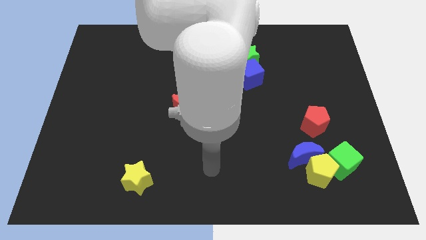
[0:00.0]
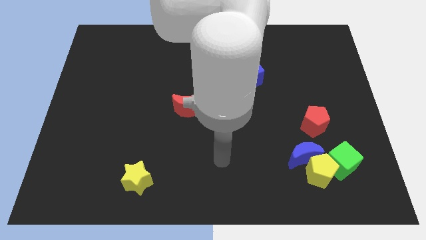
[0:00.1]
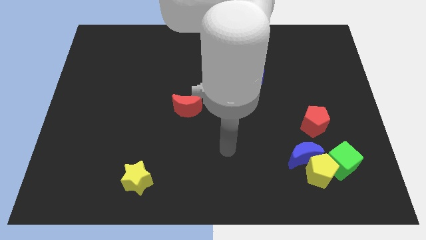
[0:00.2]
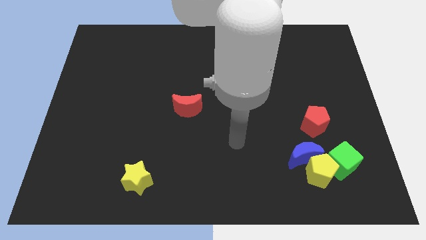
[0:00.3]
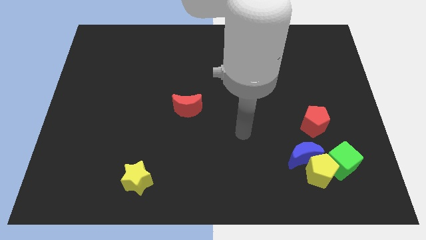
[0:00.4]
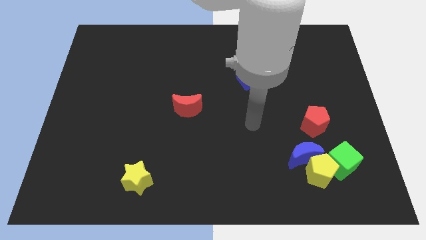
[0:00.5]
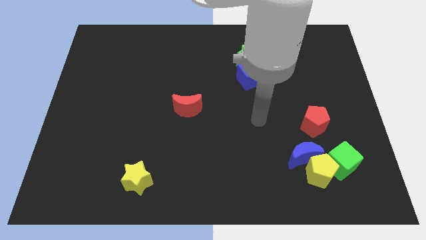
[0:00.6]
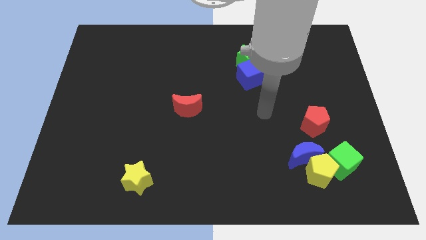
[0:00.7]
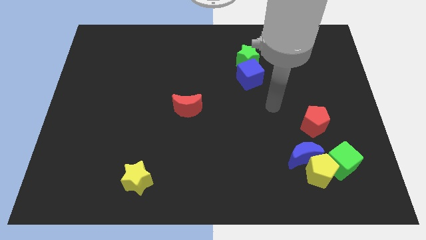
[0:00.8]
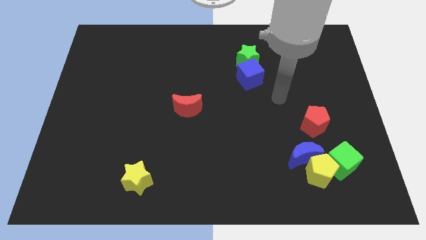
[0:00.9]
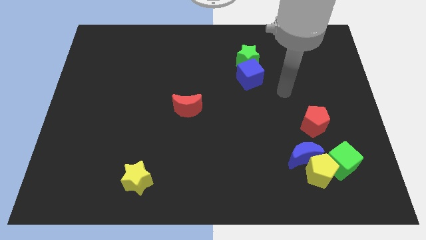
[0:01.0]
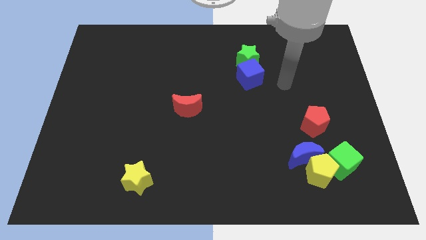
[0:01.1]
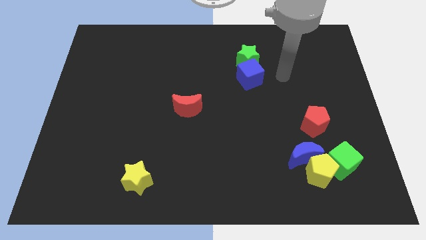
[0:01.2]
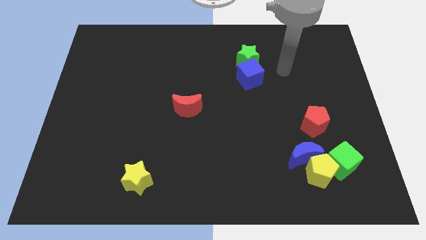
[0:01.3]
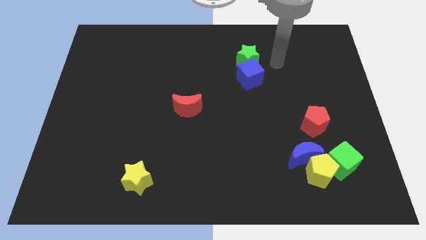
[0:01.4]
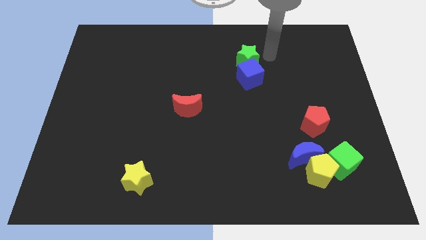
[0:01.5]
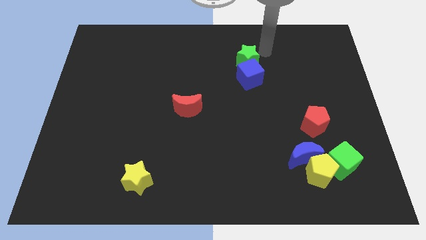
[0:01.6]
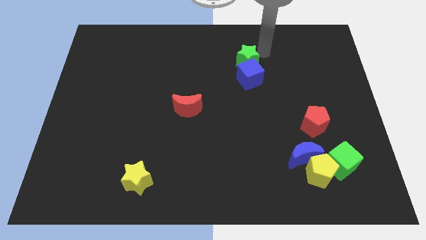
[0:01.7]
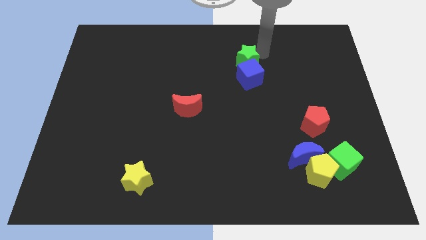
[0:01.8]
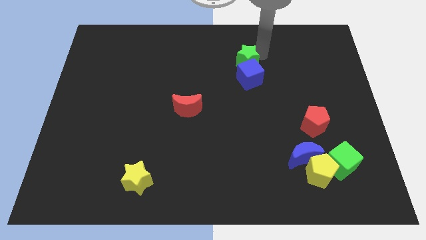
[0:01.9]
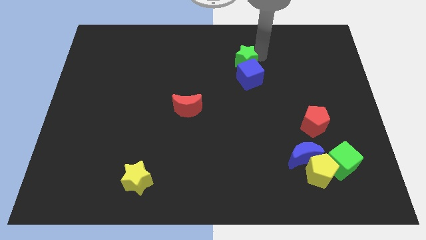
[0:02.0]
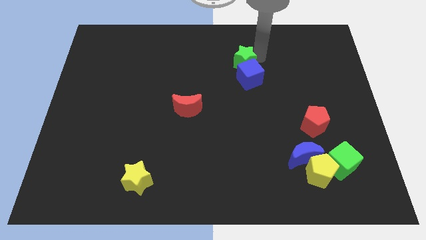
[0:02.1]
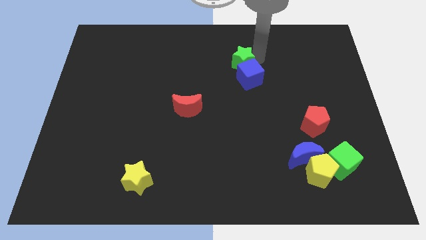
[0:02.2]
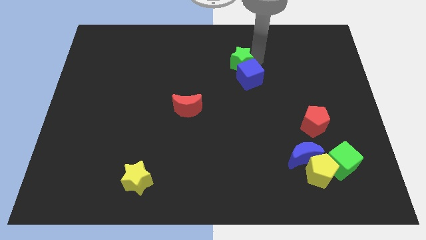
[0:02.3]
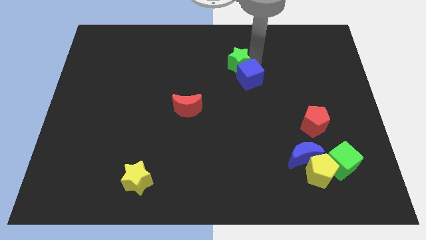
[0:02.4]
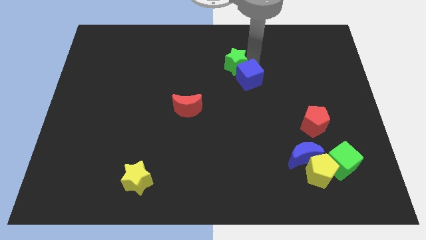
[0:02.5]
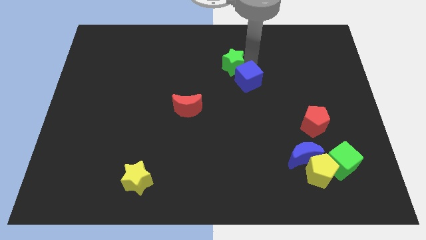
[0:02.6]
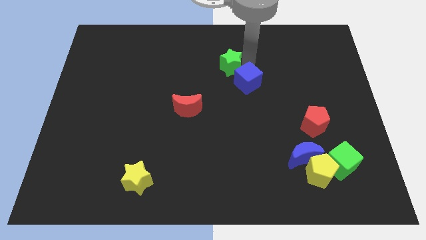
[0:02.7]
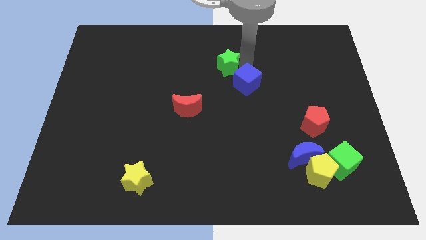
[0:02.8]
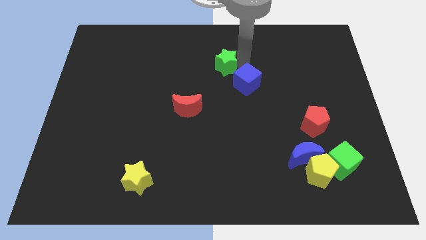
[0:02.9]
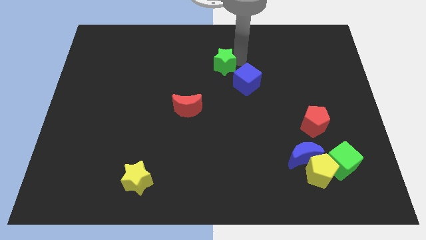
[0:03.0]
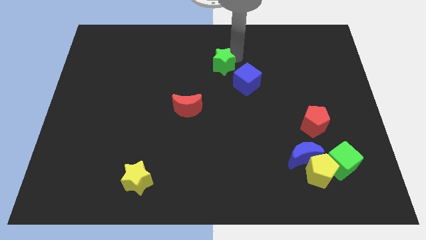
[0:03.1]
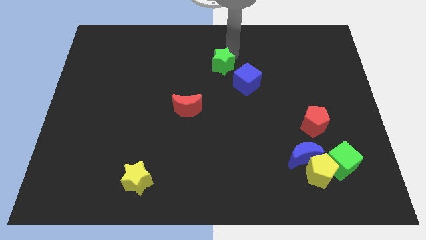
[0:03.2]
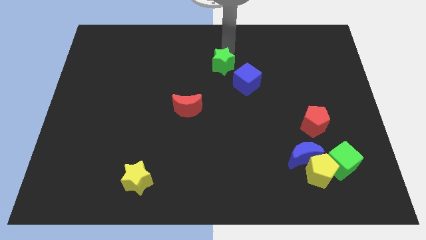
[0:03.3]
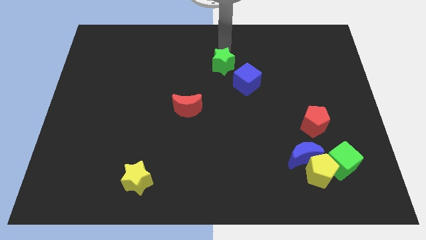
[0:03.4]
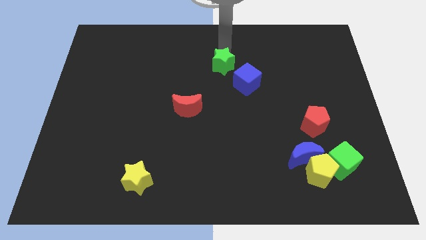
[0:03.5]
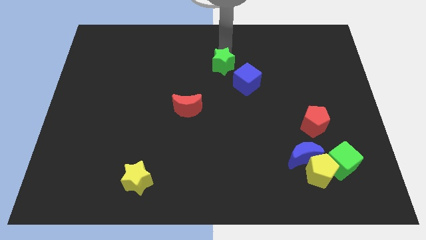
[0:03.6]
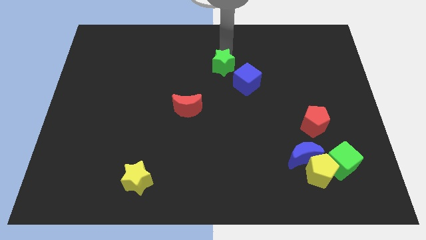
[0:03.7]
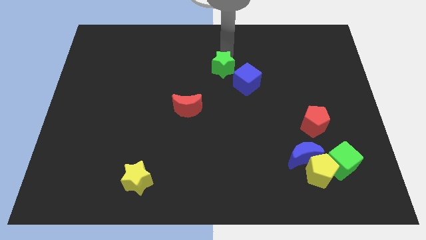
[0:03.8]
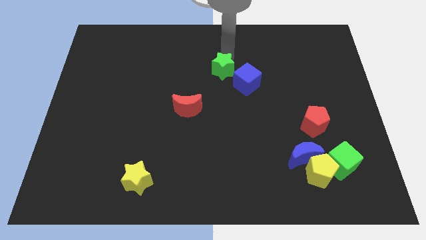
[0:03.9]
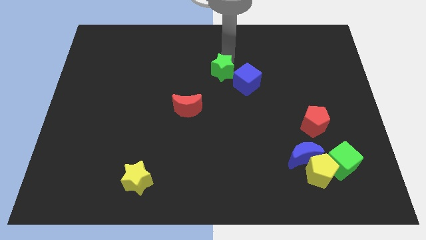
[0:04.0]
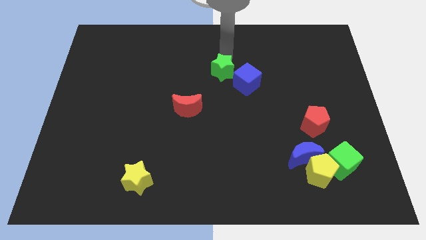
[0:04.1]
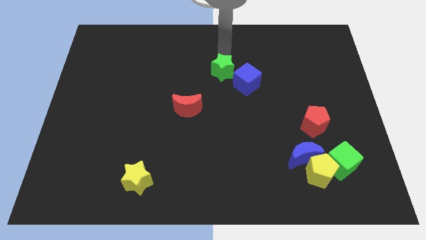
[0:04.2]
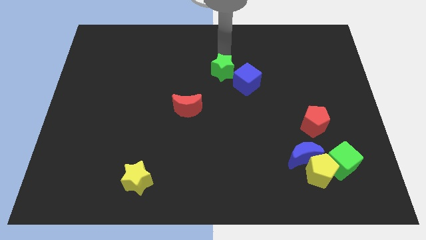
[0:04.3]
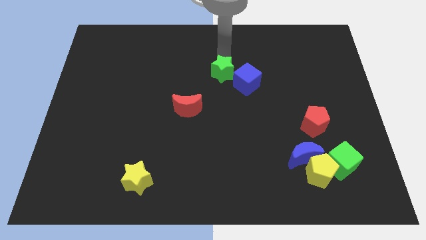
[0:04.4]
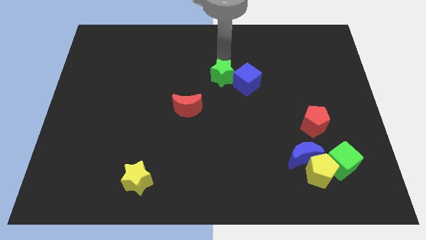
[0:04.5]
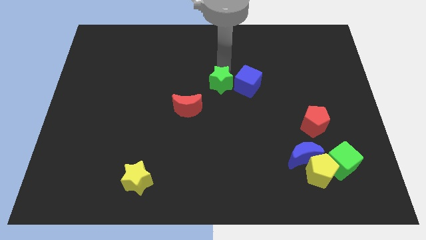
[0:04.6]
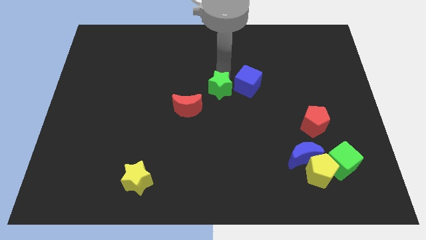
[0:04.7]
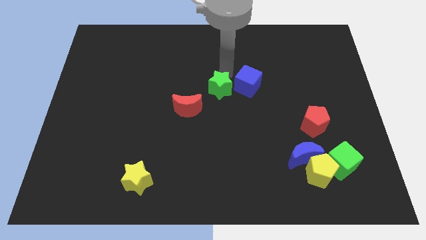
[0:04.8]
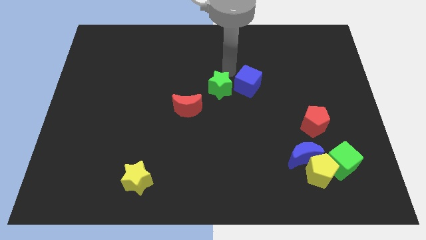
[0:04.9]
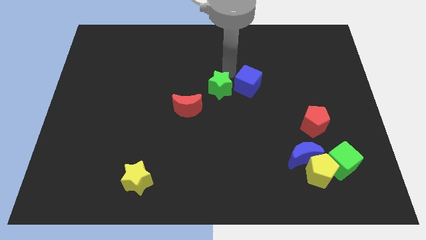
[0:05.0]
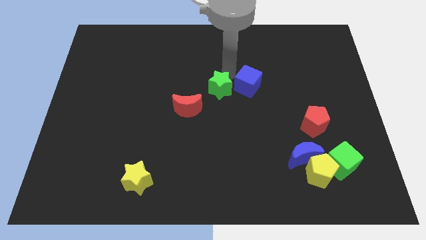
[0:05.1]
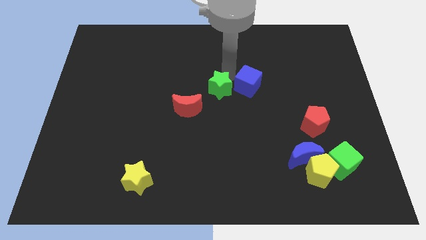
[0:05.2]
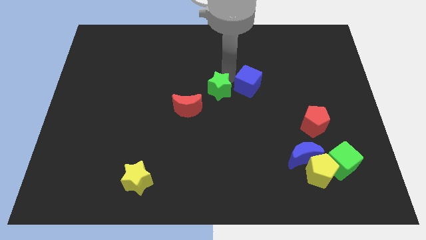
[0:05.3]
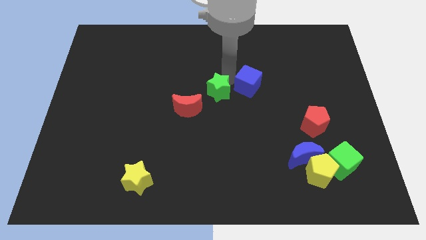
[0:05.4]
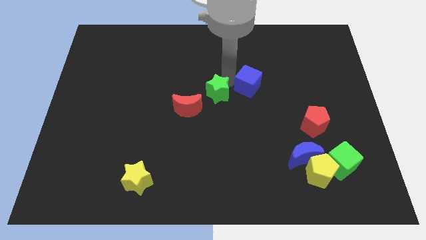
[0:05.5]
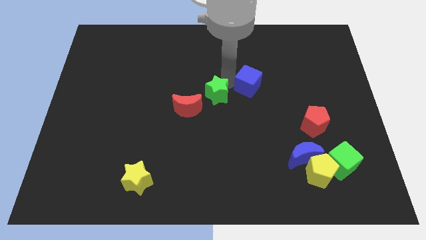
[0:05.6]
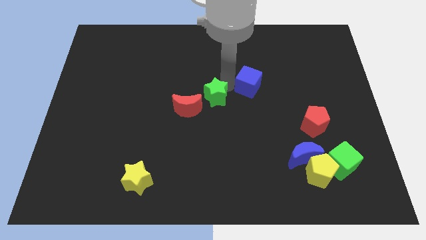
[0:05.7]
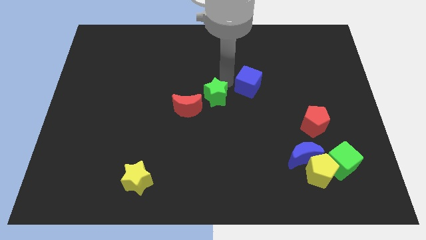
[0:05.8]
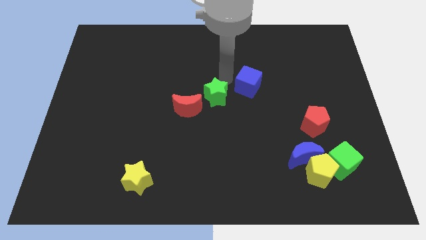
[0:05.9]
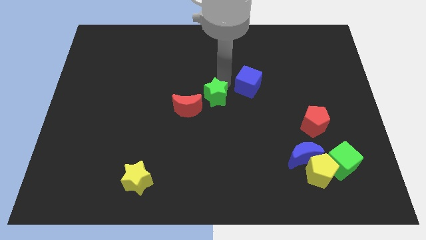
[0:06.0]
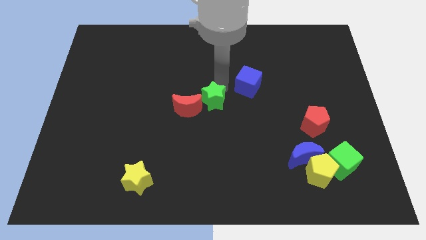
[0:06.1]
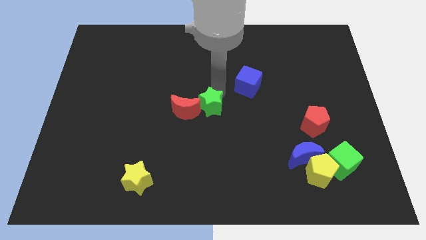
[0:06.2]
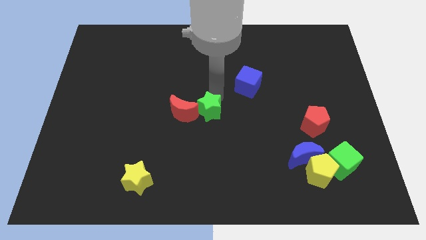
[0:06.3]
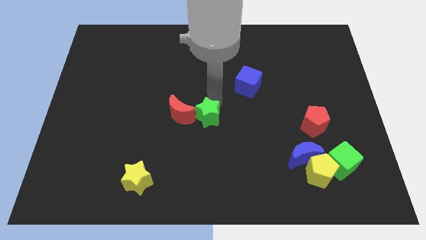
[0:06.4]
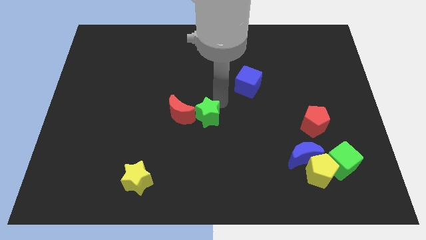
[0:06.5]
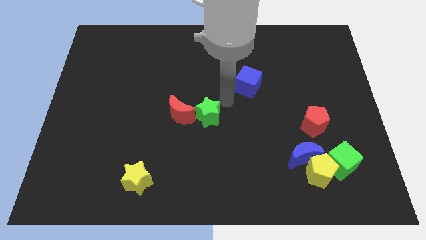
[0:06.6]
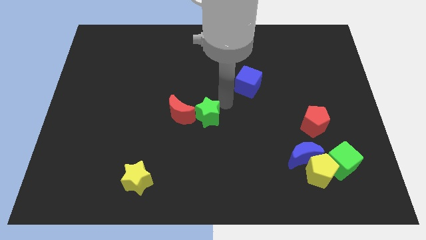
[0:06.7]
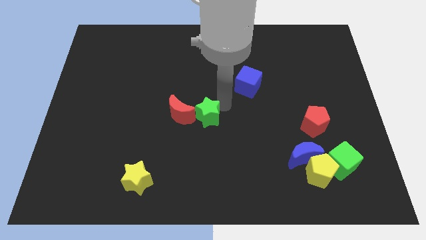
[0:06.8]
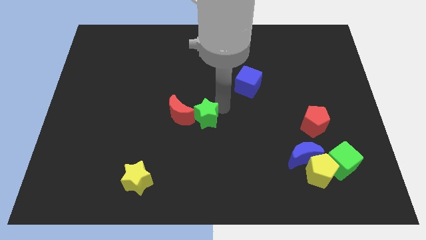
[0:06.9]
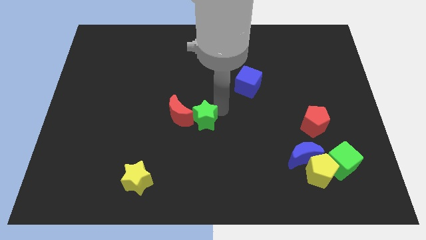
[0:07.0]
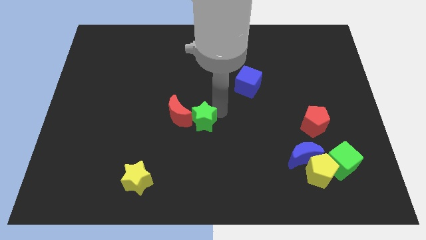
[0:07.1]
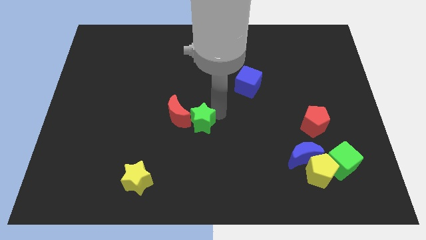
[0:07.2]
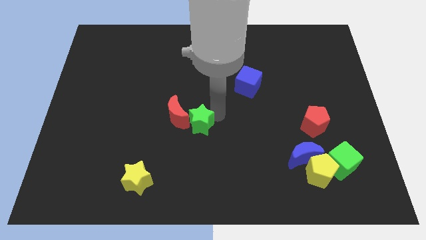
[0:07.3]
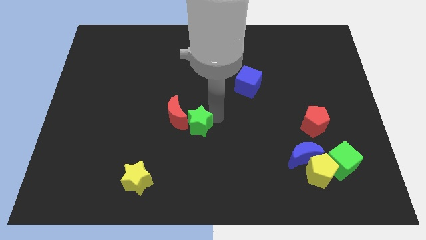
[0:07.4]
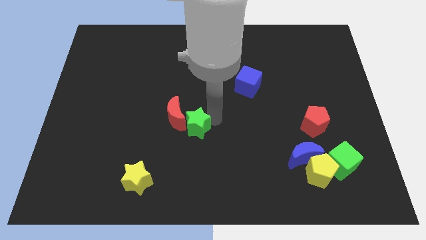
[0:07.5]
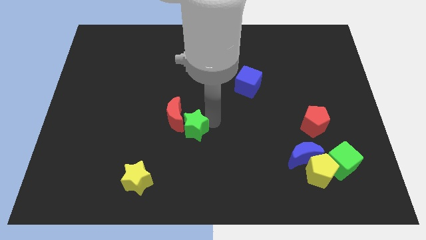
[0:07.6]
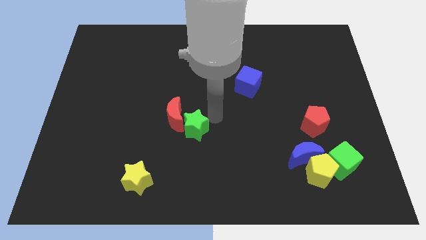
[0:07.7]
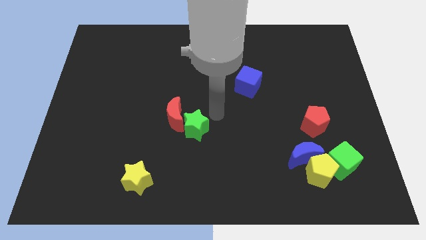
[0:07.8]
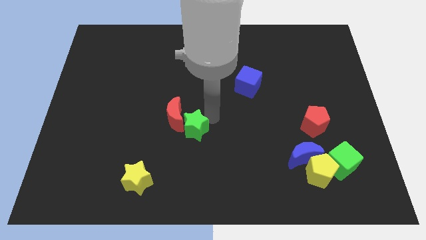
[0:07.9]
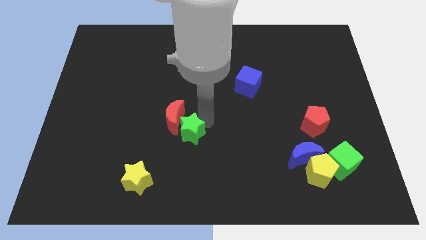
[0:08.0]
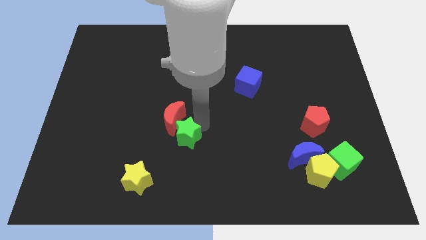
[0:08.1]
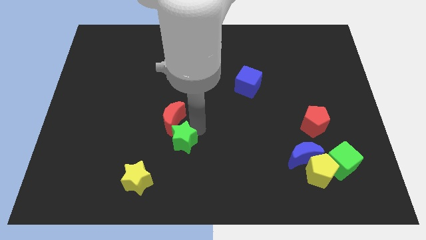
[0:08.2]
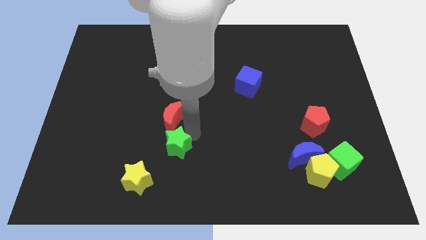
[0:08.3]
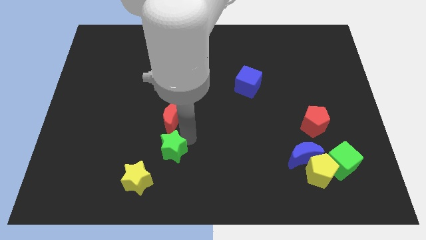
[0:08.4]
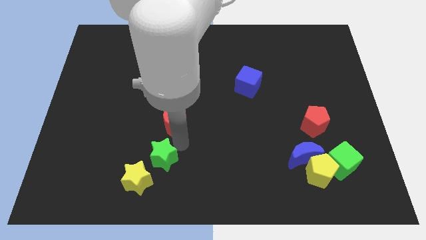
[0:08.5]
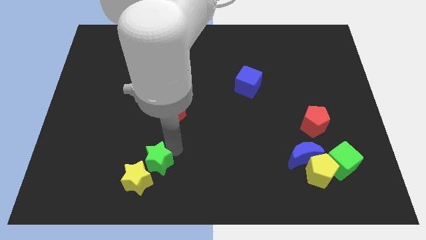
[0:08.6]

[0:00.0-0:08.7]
slide the green star to the yellow star
